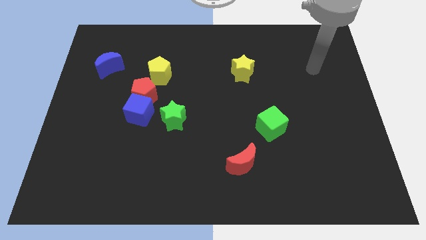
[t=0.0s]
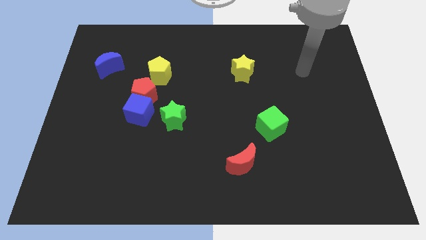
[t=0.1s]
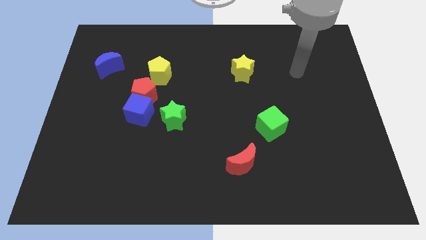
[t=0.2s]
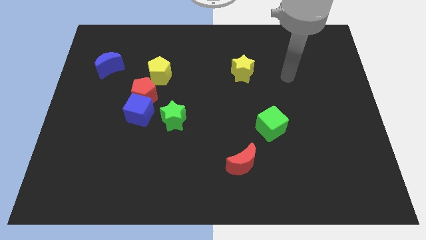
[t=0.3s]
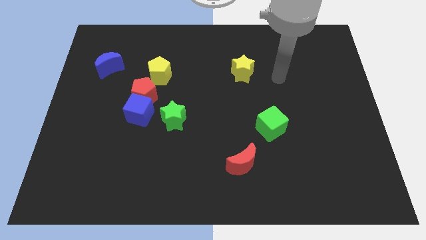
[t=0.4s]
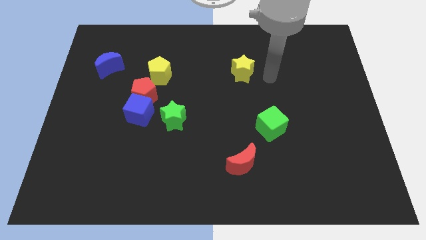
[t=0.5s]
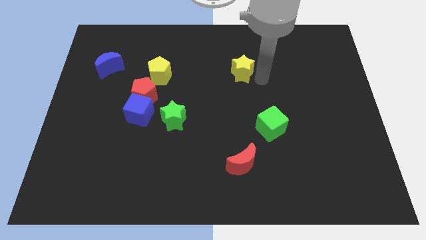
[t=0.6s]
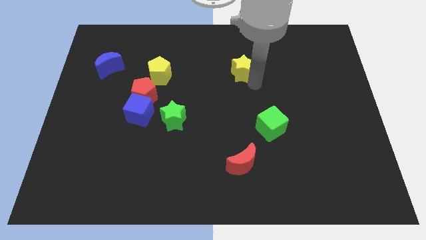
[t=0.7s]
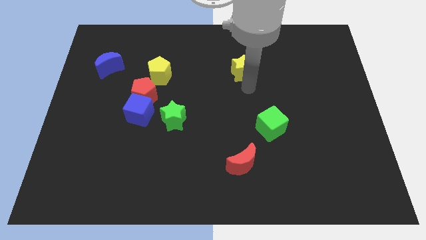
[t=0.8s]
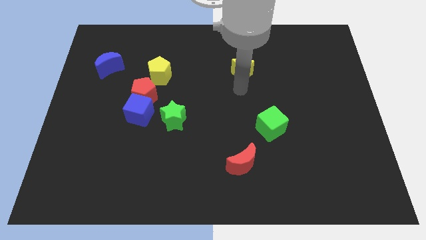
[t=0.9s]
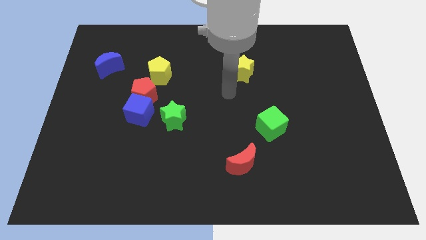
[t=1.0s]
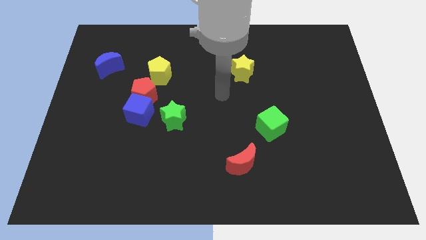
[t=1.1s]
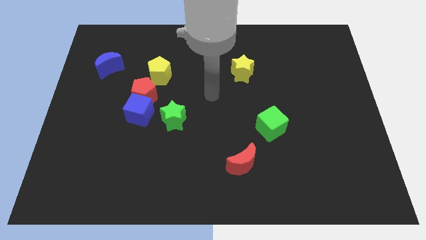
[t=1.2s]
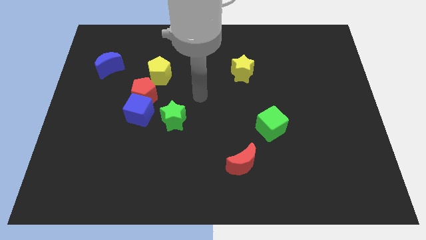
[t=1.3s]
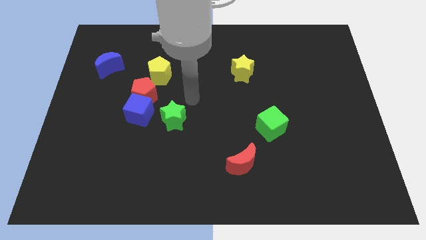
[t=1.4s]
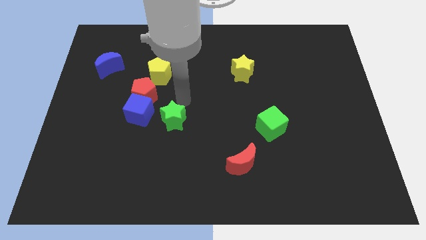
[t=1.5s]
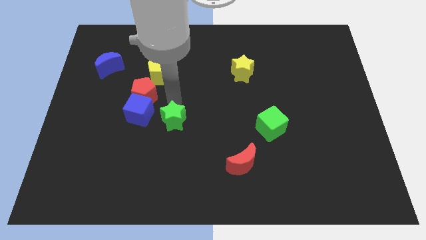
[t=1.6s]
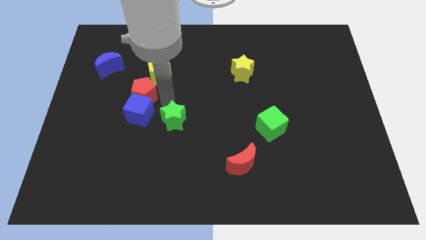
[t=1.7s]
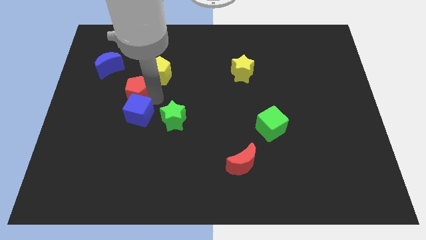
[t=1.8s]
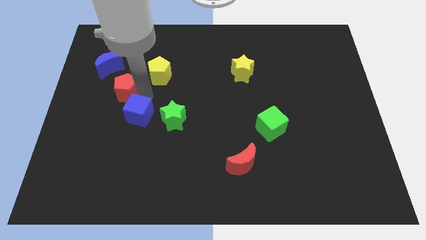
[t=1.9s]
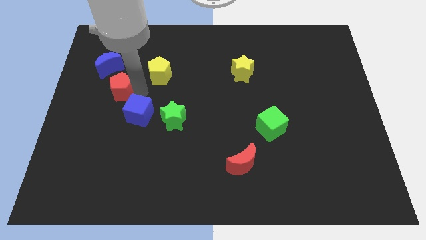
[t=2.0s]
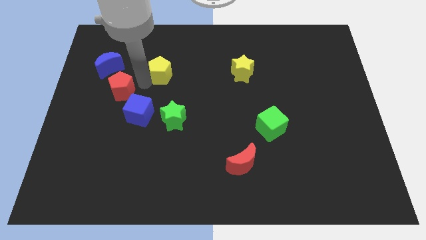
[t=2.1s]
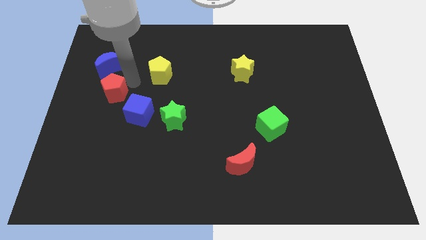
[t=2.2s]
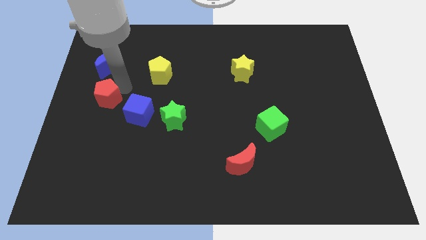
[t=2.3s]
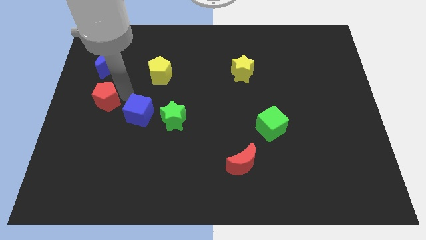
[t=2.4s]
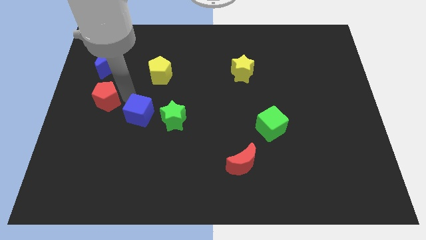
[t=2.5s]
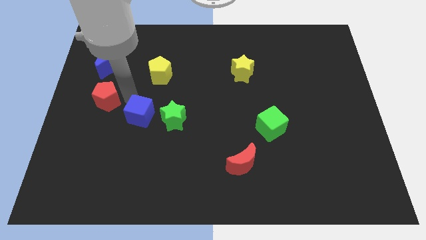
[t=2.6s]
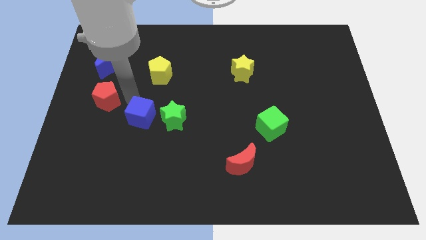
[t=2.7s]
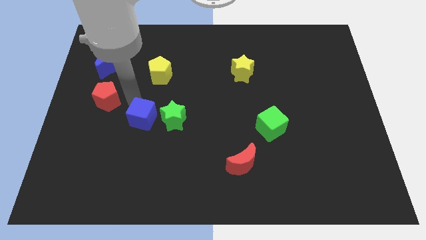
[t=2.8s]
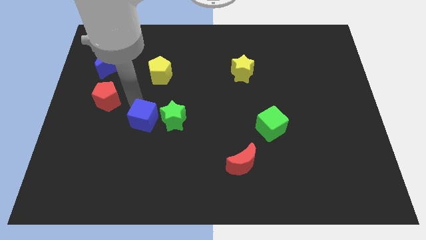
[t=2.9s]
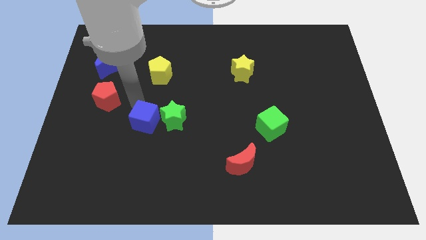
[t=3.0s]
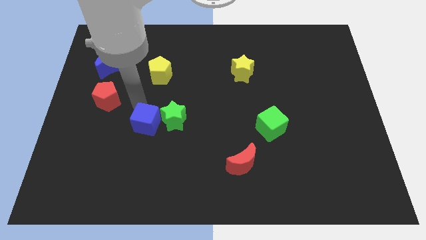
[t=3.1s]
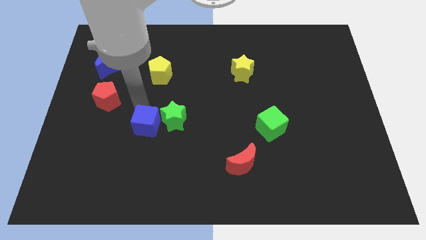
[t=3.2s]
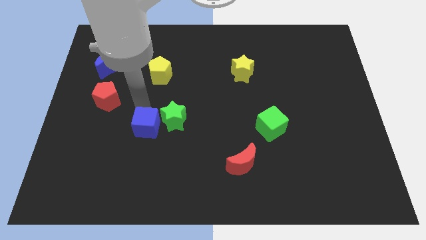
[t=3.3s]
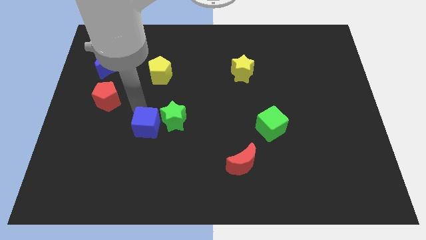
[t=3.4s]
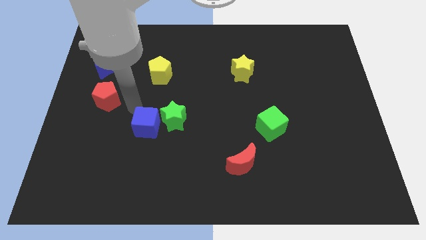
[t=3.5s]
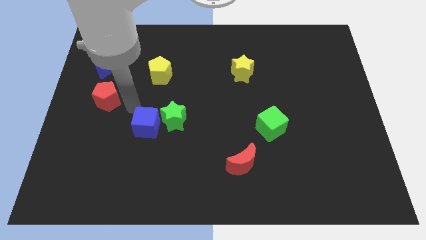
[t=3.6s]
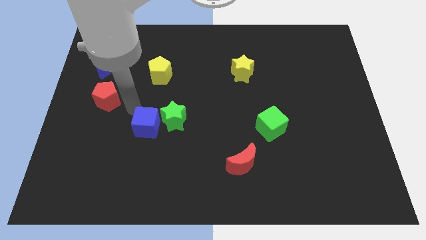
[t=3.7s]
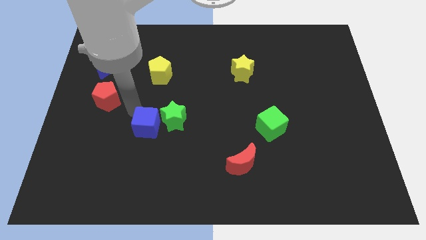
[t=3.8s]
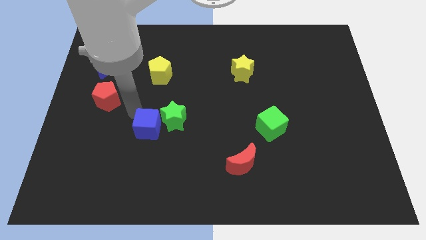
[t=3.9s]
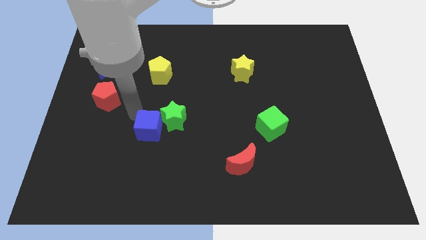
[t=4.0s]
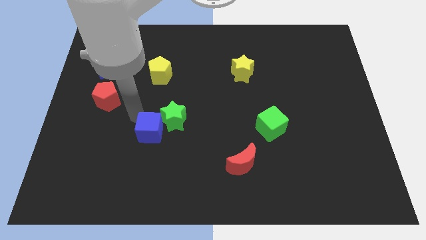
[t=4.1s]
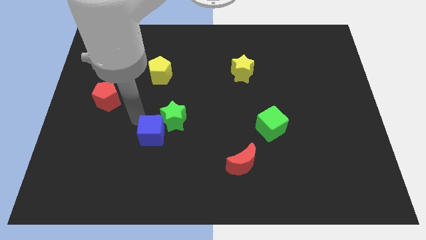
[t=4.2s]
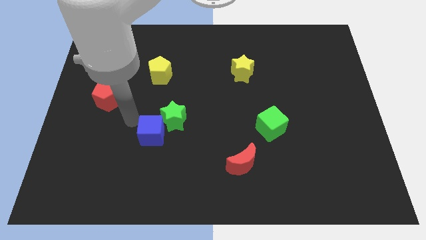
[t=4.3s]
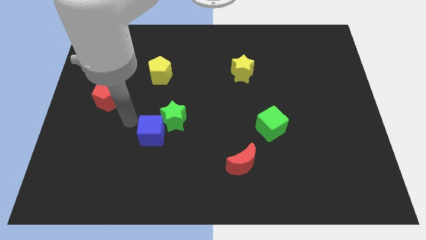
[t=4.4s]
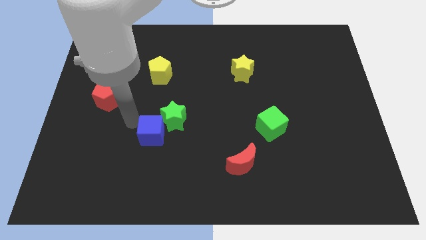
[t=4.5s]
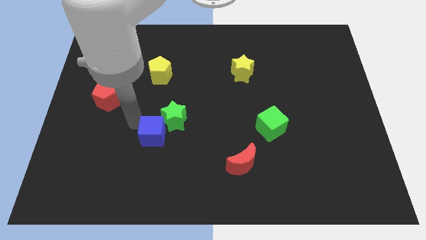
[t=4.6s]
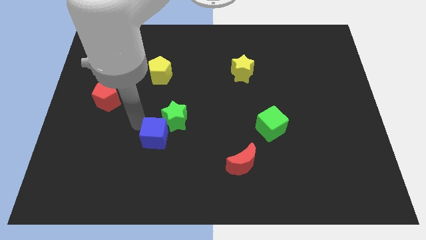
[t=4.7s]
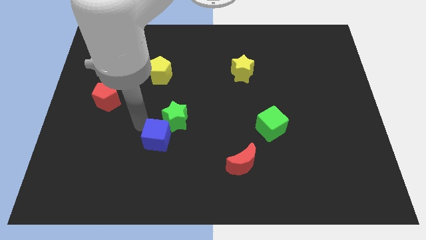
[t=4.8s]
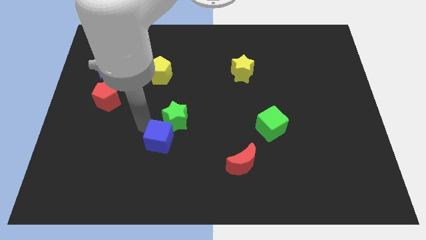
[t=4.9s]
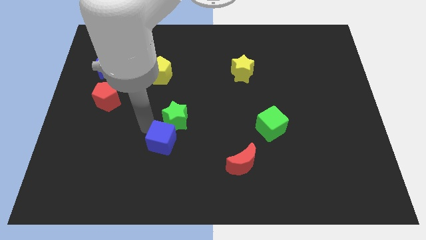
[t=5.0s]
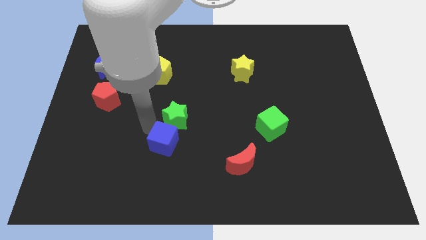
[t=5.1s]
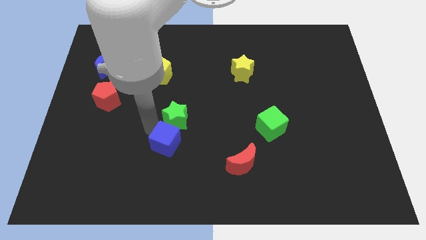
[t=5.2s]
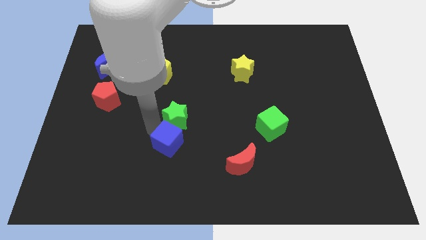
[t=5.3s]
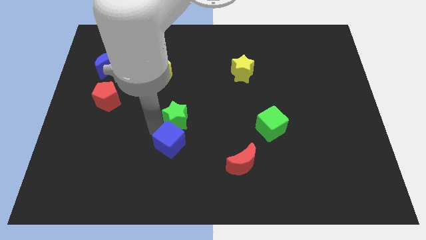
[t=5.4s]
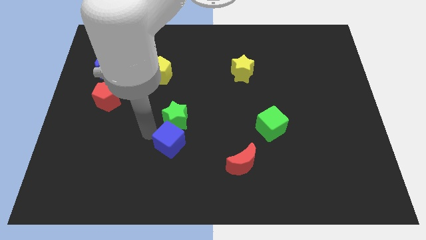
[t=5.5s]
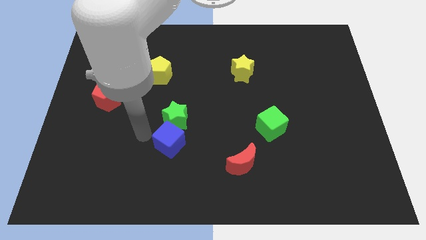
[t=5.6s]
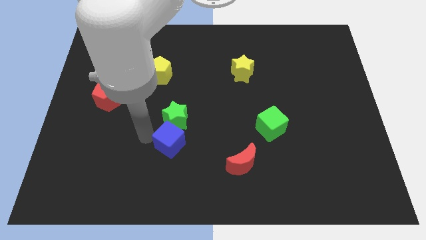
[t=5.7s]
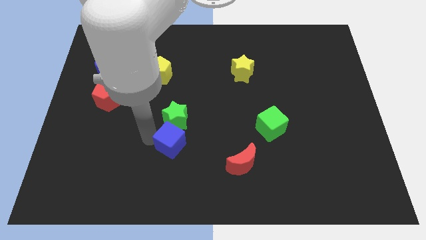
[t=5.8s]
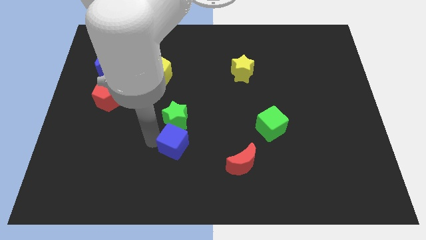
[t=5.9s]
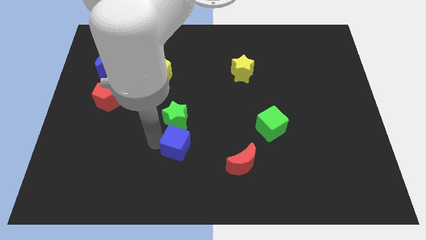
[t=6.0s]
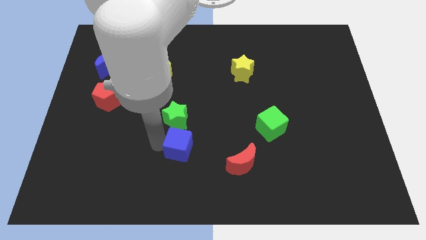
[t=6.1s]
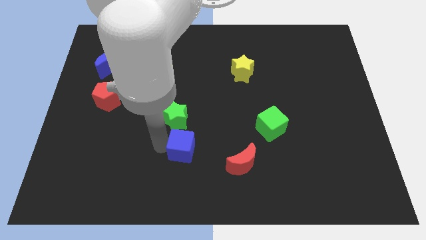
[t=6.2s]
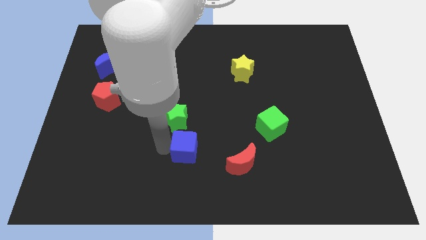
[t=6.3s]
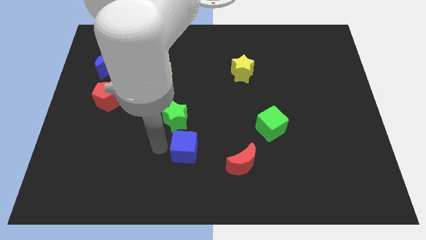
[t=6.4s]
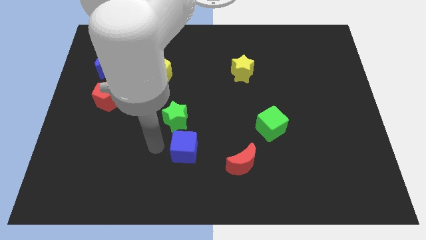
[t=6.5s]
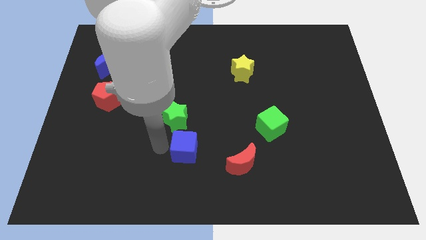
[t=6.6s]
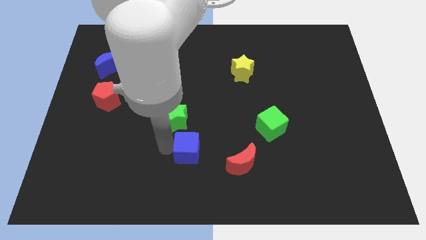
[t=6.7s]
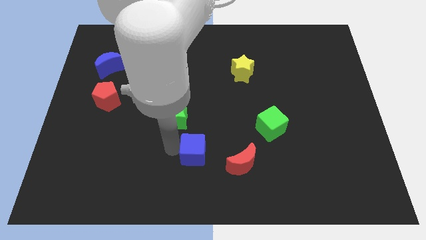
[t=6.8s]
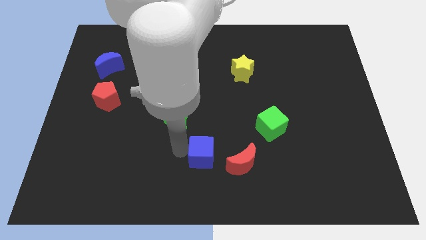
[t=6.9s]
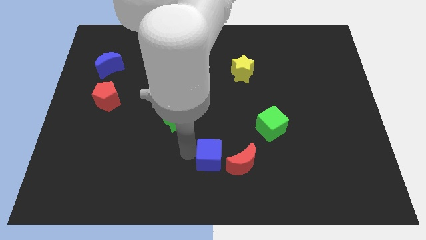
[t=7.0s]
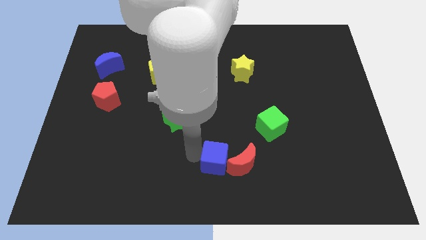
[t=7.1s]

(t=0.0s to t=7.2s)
slide the blue cube to the red moon

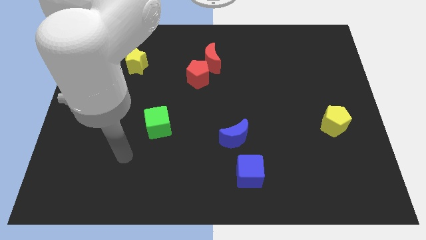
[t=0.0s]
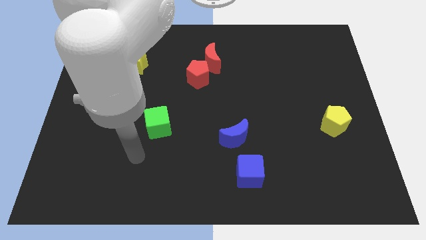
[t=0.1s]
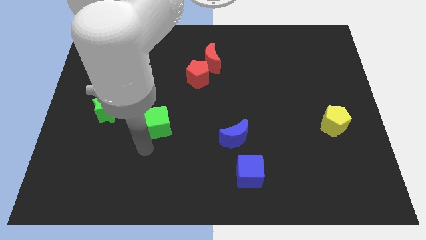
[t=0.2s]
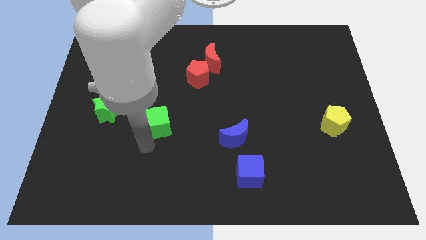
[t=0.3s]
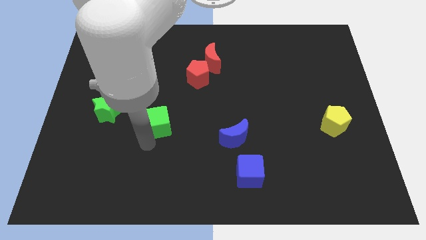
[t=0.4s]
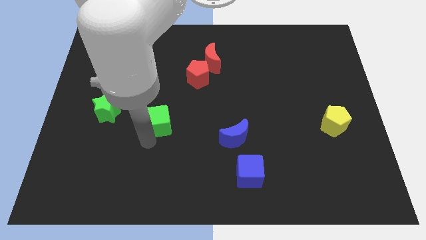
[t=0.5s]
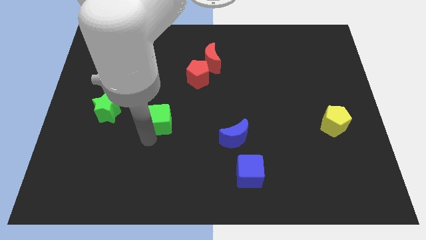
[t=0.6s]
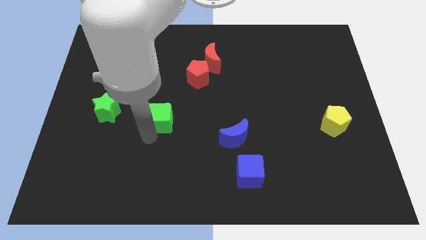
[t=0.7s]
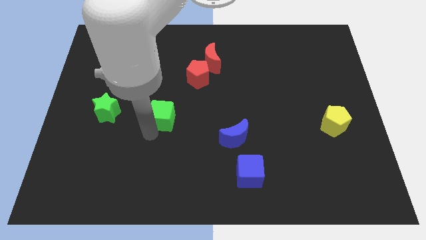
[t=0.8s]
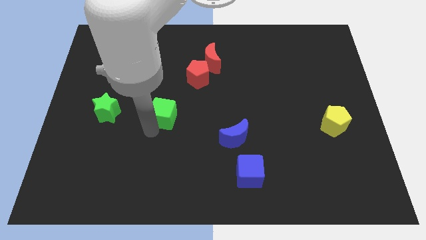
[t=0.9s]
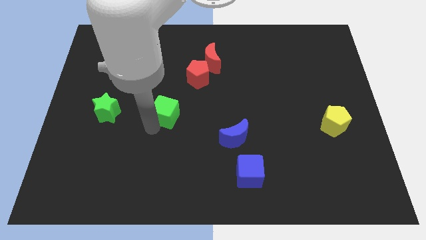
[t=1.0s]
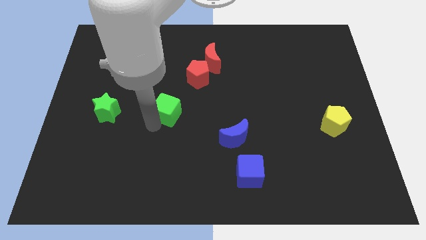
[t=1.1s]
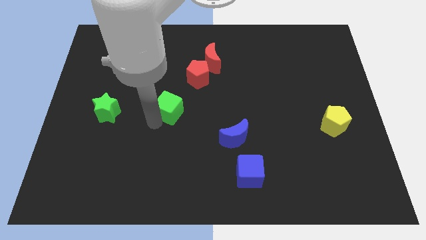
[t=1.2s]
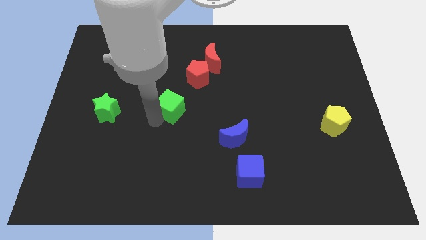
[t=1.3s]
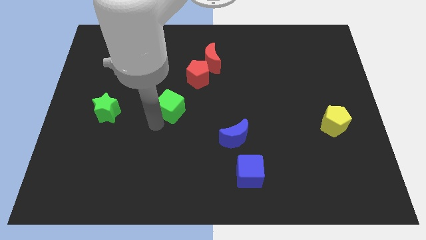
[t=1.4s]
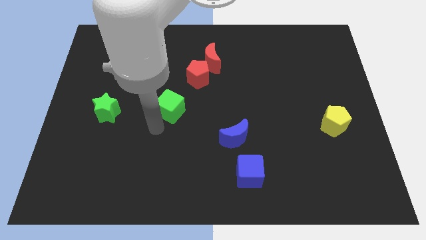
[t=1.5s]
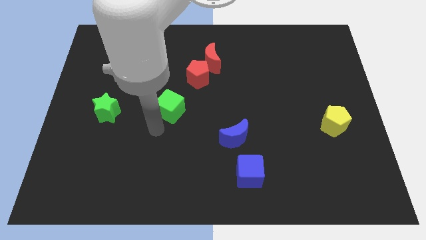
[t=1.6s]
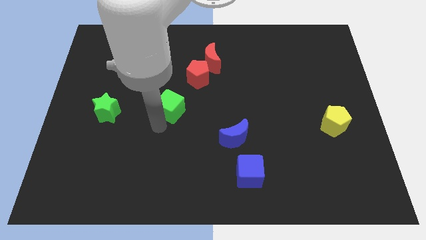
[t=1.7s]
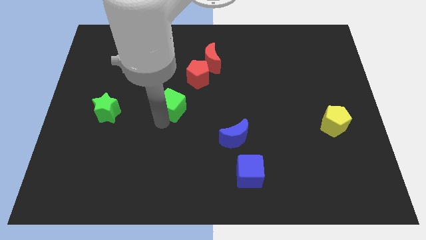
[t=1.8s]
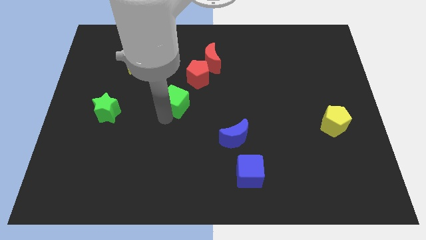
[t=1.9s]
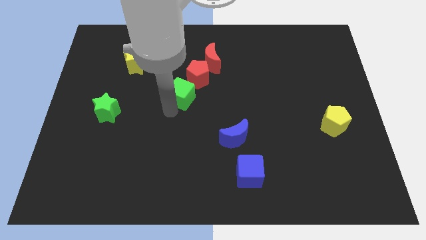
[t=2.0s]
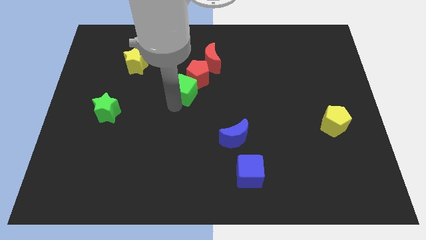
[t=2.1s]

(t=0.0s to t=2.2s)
move the green cube next to the red pentagon
